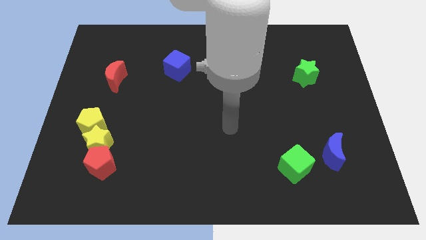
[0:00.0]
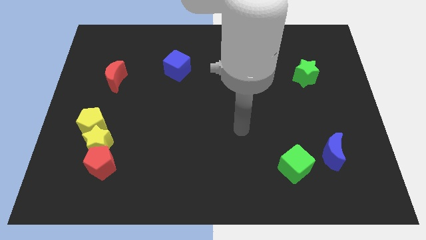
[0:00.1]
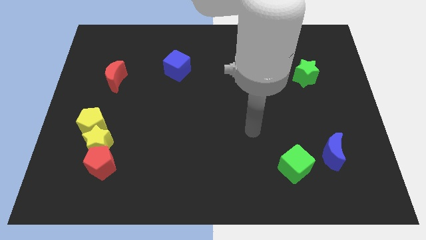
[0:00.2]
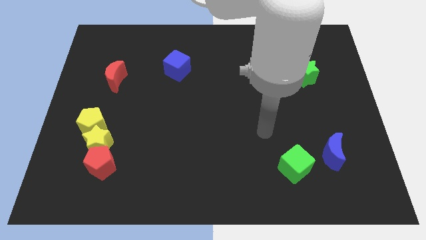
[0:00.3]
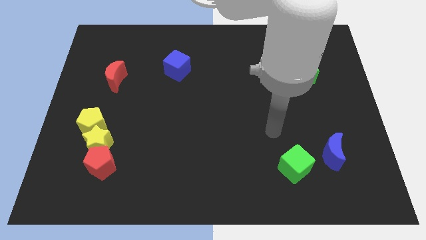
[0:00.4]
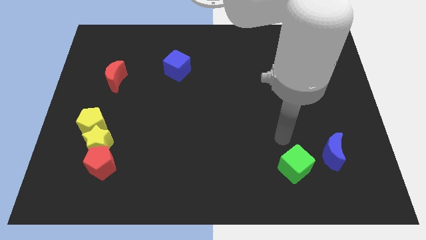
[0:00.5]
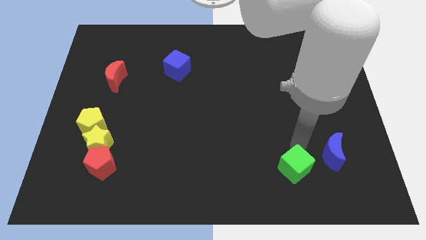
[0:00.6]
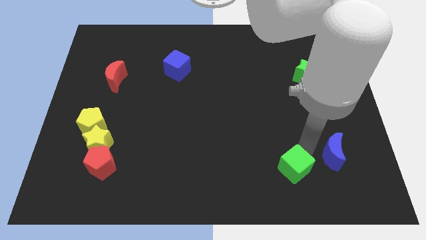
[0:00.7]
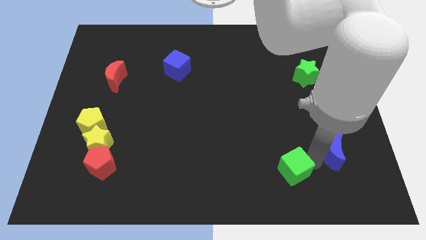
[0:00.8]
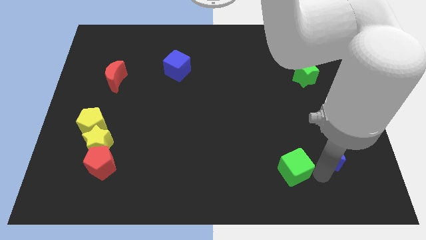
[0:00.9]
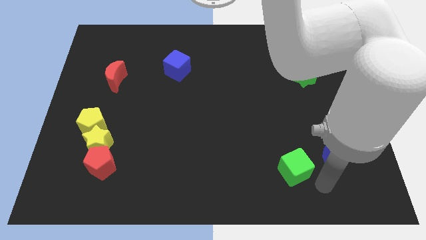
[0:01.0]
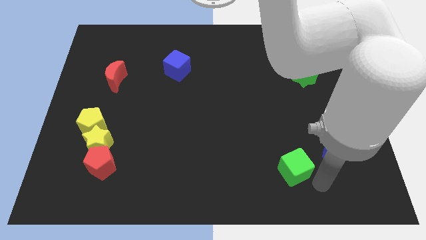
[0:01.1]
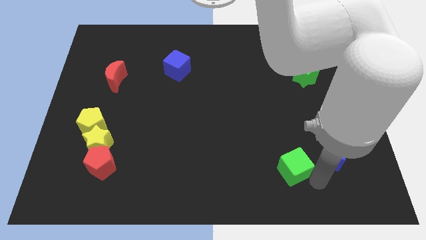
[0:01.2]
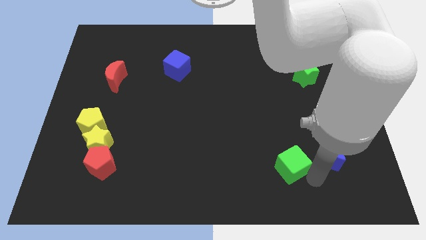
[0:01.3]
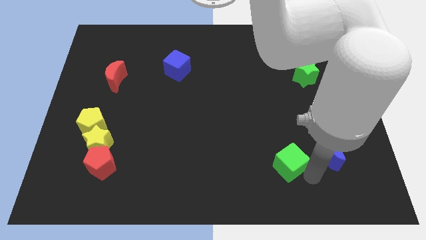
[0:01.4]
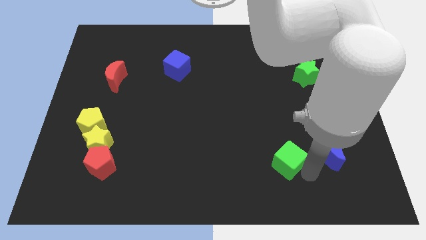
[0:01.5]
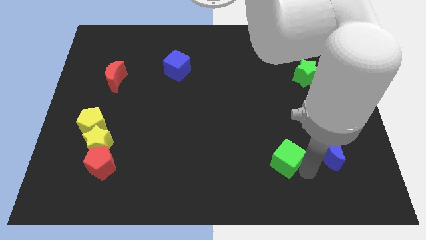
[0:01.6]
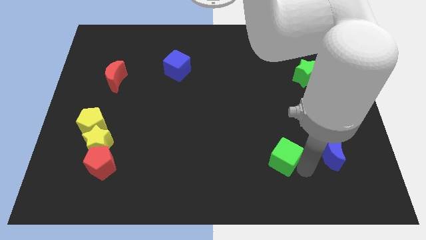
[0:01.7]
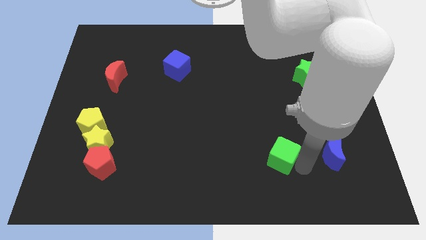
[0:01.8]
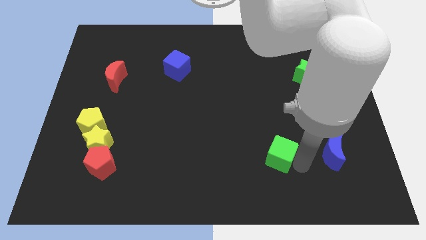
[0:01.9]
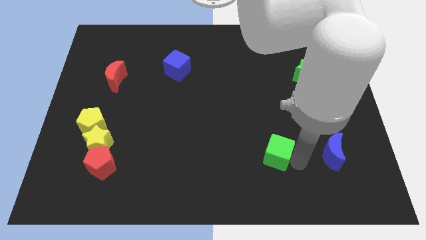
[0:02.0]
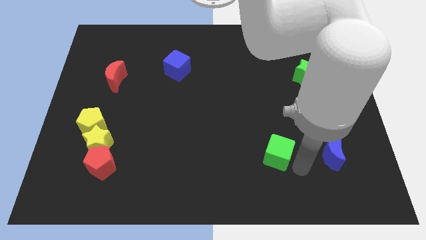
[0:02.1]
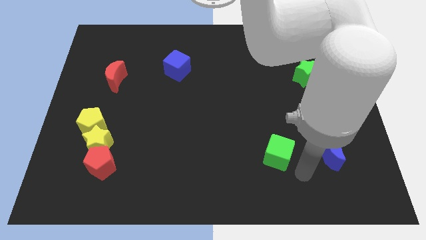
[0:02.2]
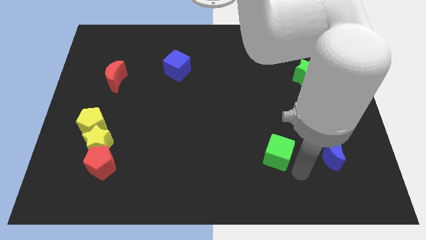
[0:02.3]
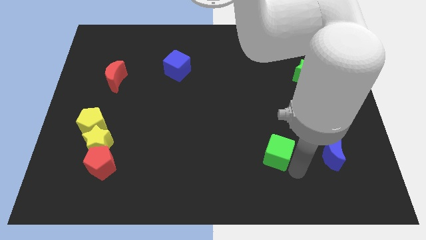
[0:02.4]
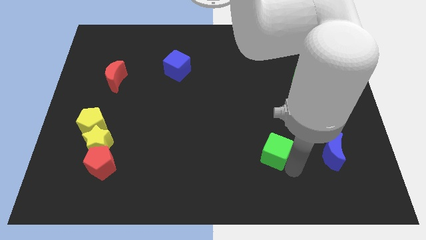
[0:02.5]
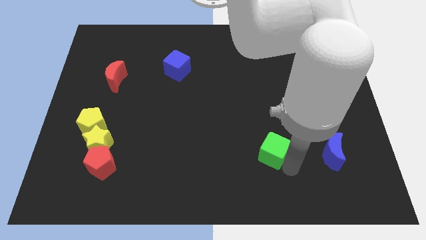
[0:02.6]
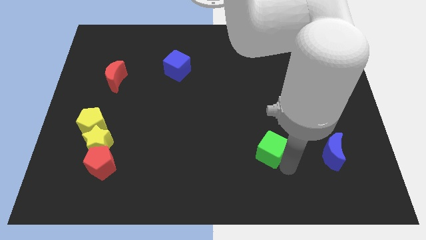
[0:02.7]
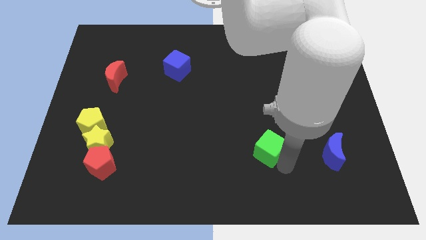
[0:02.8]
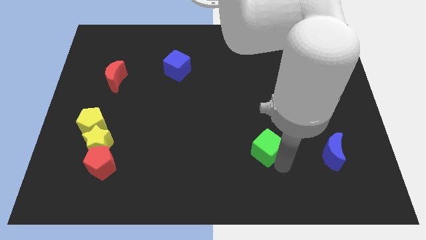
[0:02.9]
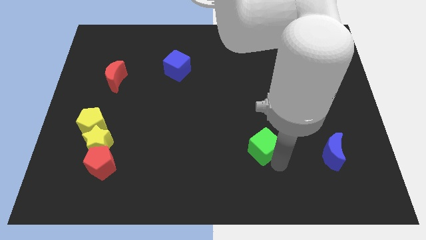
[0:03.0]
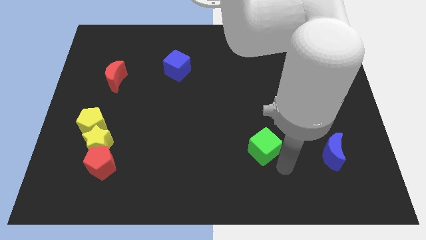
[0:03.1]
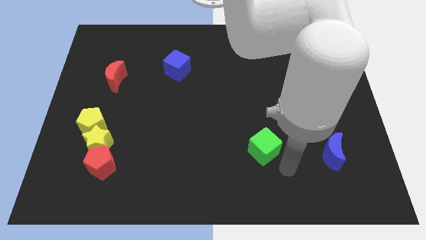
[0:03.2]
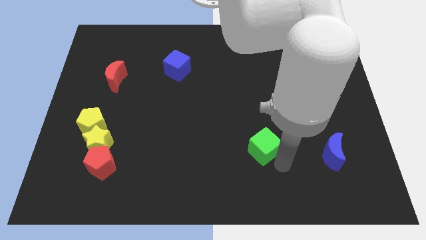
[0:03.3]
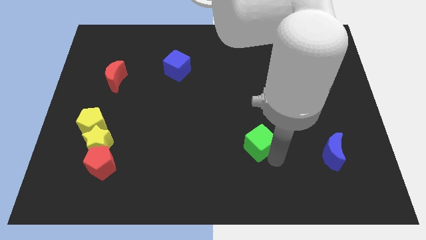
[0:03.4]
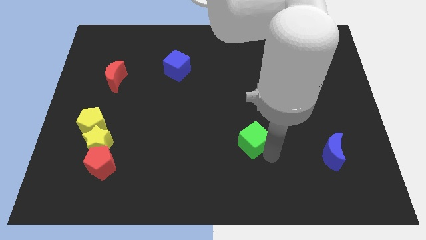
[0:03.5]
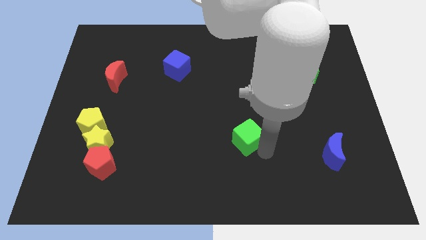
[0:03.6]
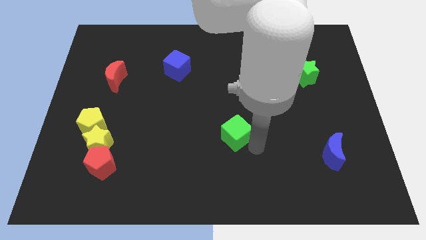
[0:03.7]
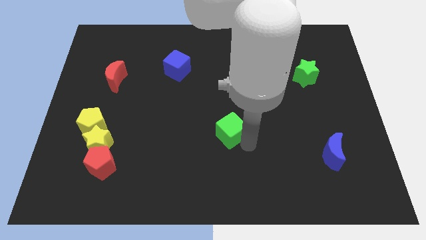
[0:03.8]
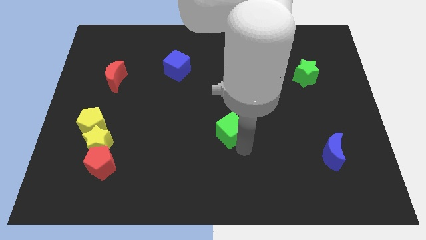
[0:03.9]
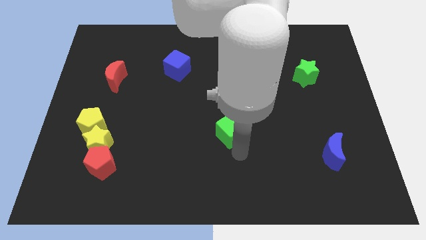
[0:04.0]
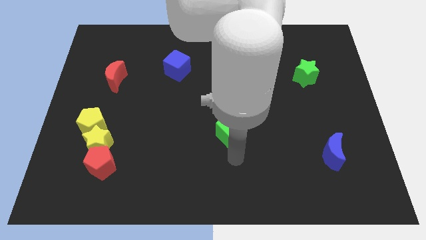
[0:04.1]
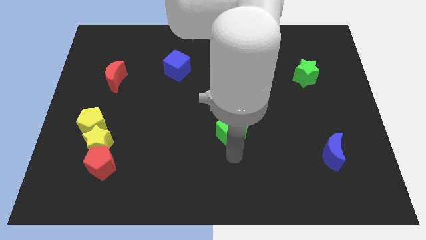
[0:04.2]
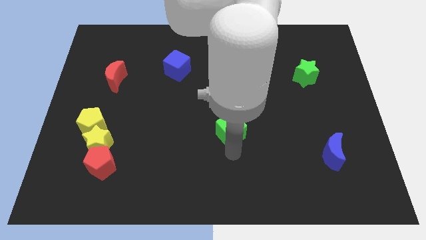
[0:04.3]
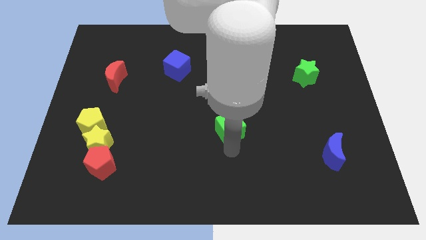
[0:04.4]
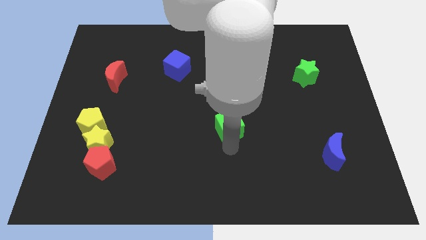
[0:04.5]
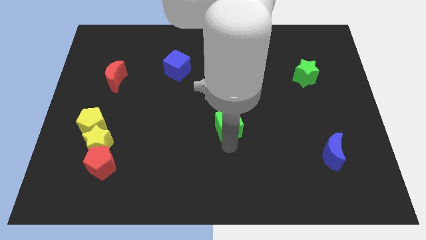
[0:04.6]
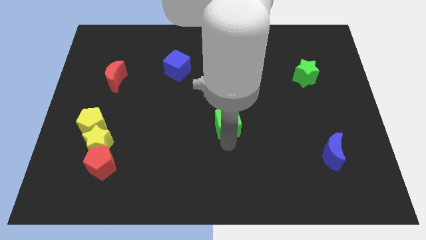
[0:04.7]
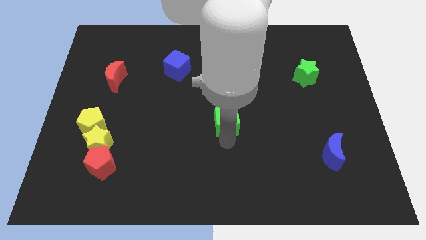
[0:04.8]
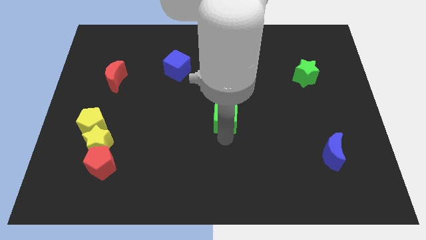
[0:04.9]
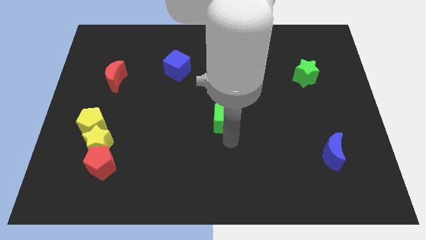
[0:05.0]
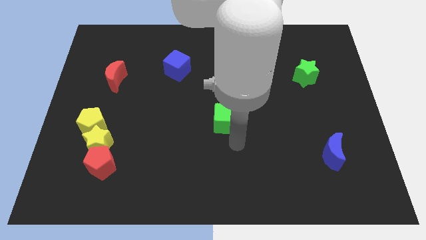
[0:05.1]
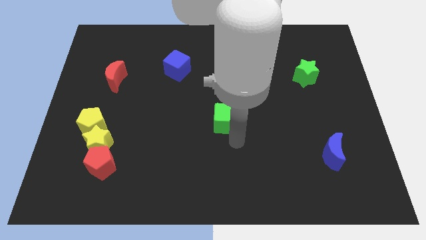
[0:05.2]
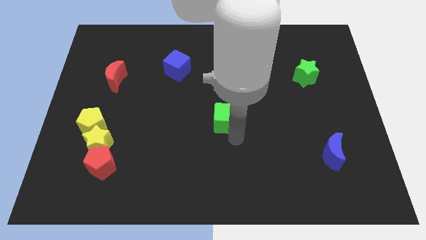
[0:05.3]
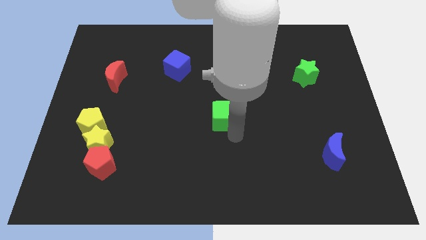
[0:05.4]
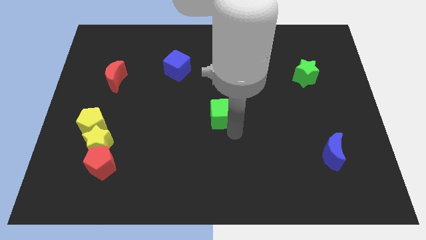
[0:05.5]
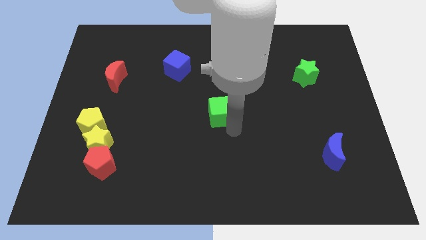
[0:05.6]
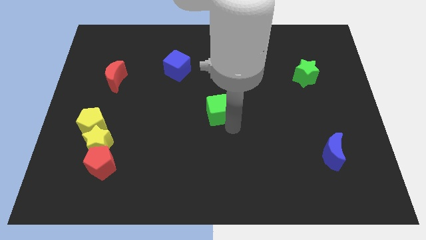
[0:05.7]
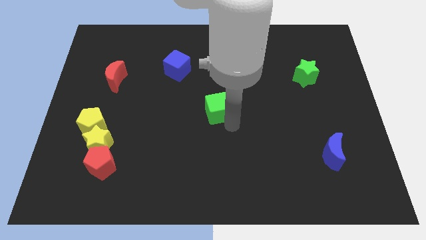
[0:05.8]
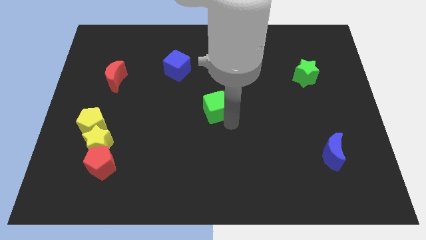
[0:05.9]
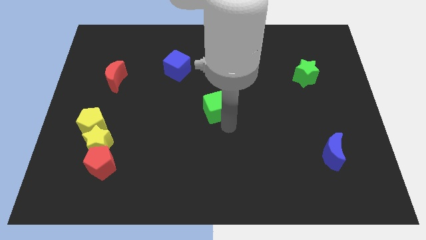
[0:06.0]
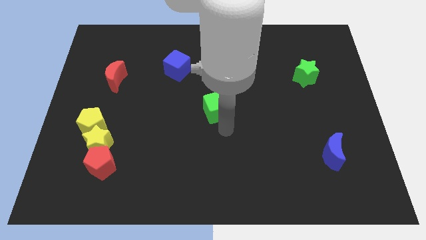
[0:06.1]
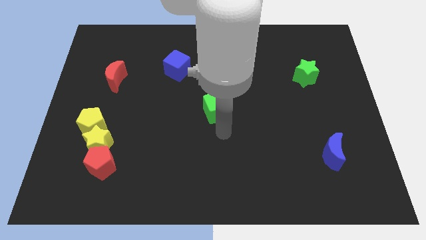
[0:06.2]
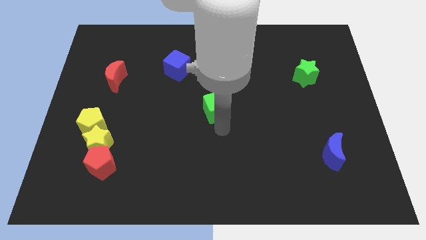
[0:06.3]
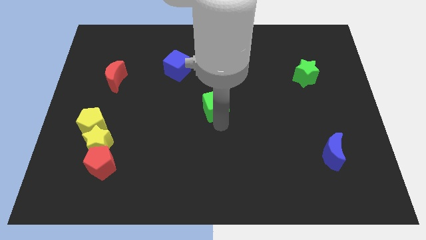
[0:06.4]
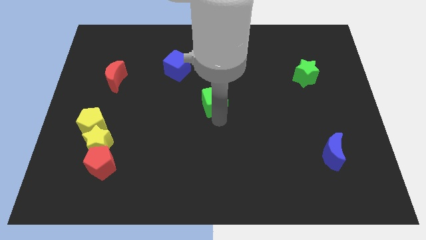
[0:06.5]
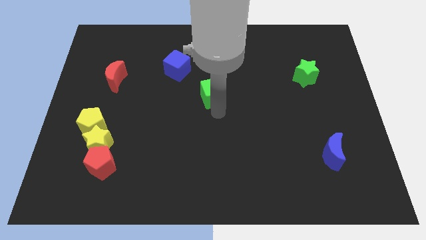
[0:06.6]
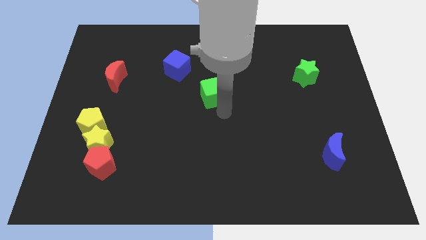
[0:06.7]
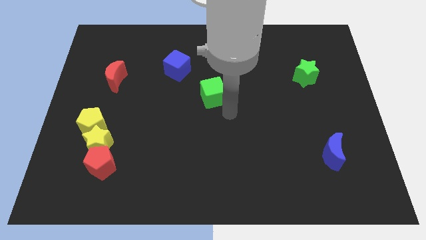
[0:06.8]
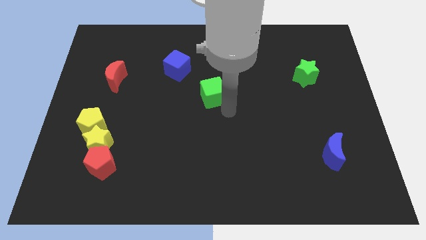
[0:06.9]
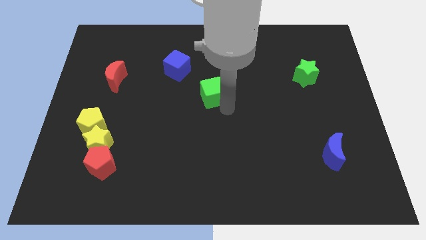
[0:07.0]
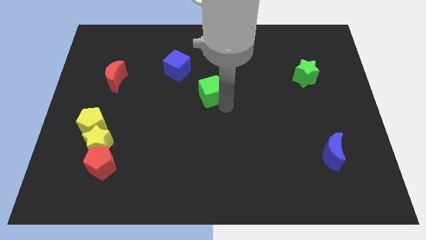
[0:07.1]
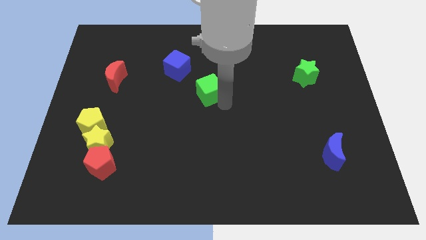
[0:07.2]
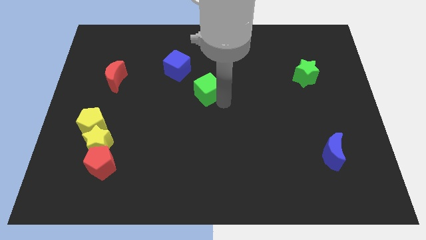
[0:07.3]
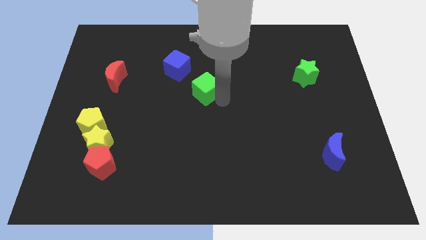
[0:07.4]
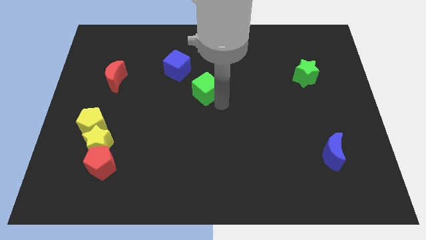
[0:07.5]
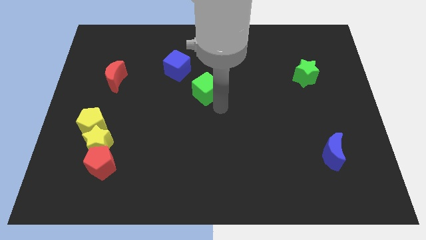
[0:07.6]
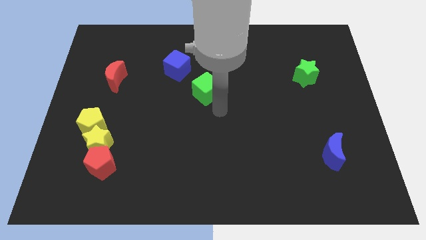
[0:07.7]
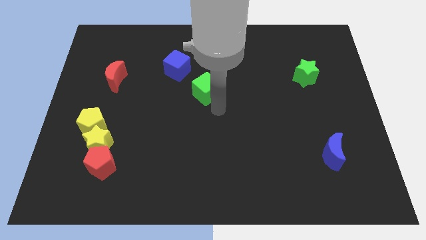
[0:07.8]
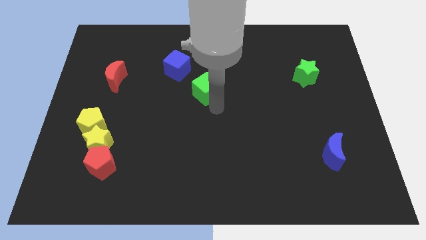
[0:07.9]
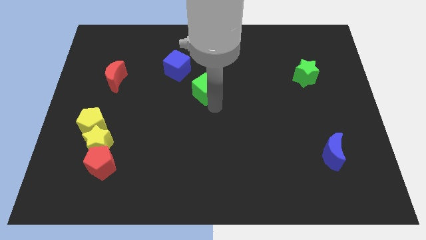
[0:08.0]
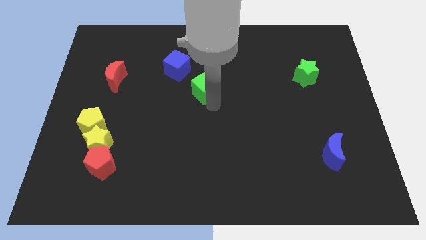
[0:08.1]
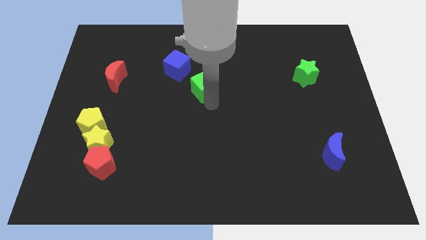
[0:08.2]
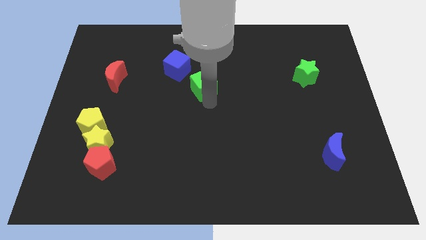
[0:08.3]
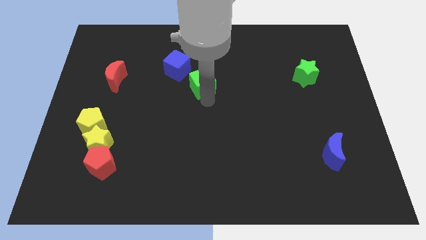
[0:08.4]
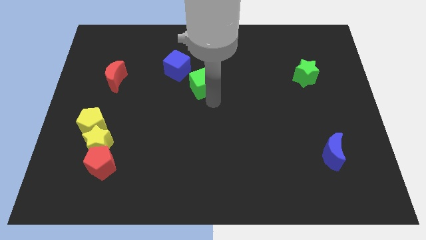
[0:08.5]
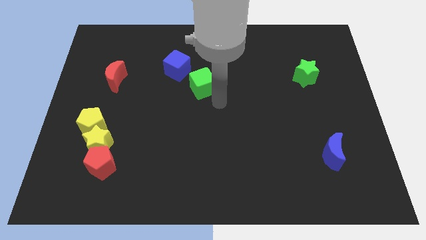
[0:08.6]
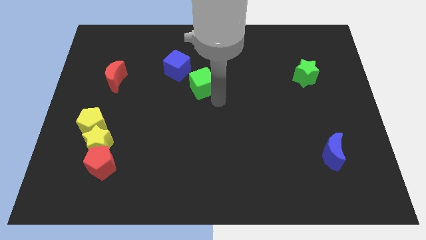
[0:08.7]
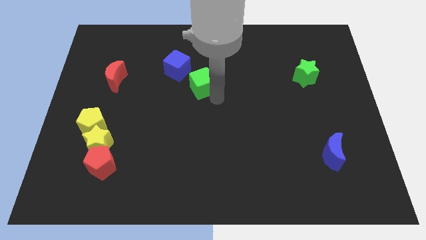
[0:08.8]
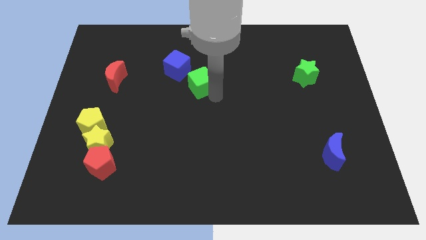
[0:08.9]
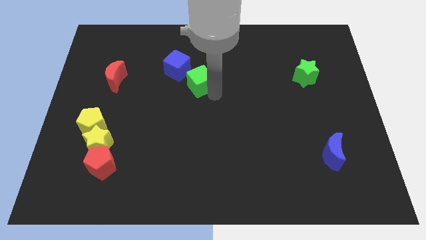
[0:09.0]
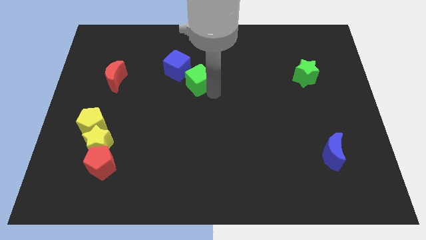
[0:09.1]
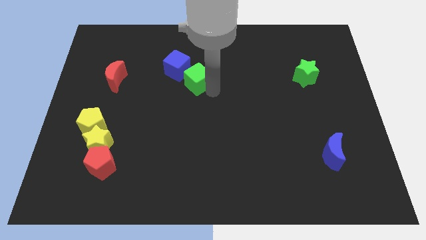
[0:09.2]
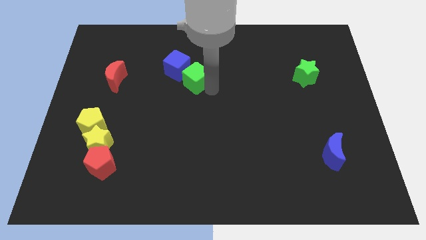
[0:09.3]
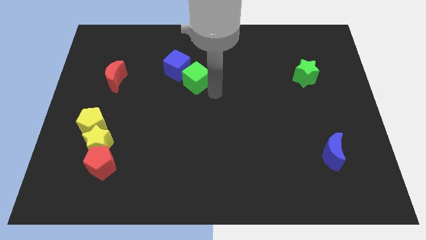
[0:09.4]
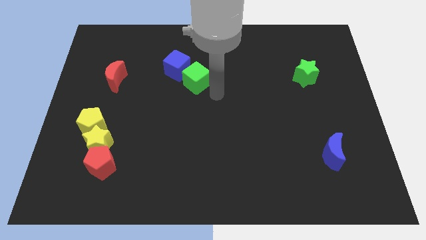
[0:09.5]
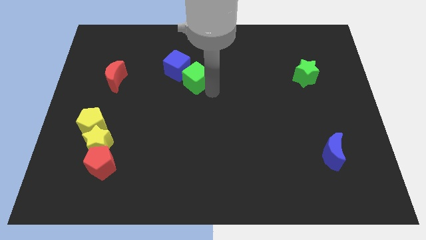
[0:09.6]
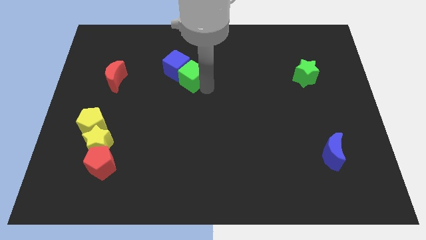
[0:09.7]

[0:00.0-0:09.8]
put the green cube towards the blue cube
